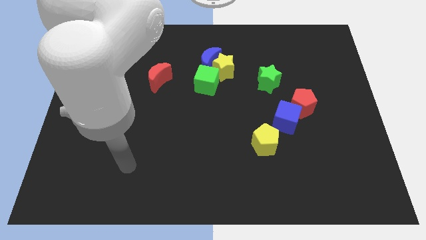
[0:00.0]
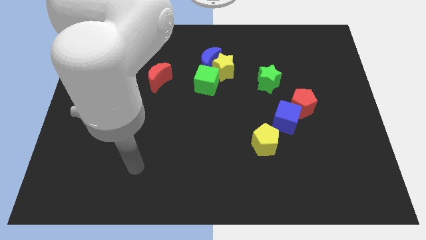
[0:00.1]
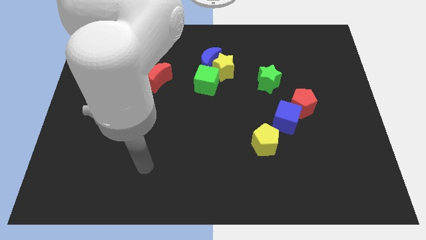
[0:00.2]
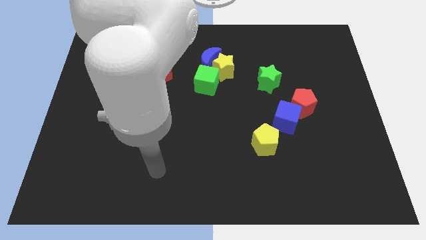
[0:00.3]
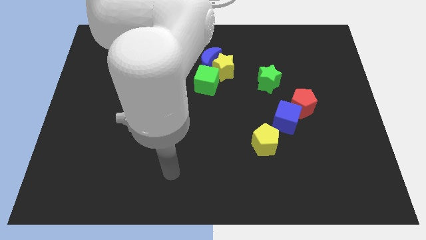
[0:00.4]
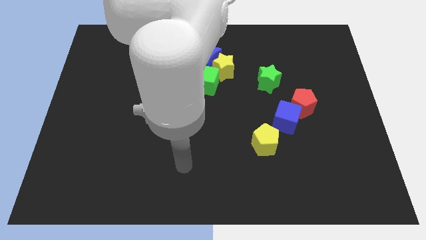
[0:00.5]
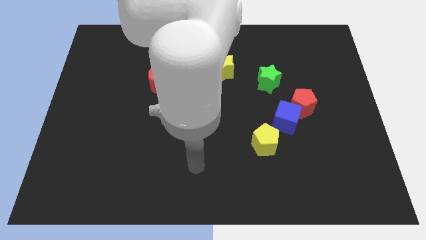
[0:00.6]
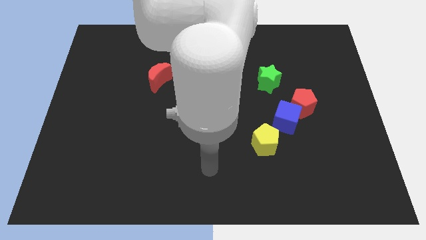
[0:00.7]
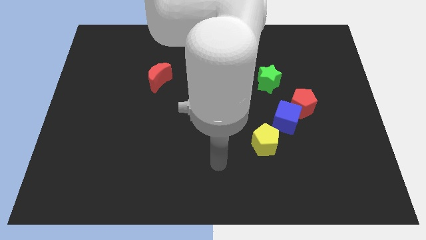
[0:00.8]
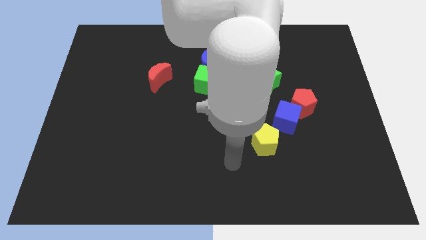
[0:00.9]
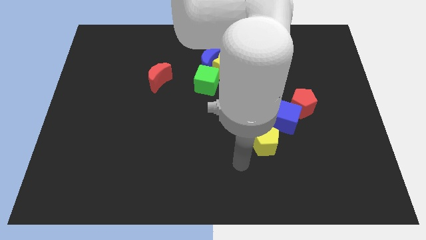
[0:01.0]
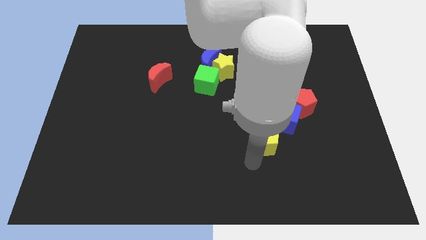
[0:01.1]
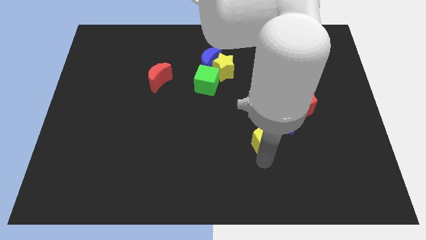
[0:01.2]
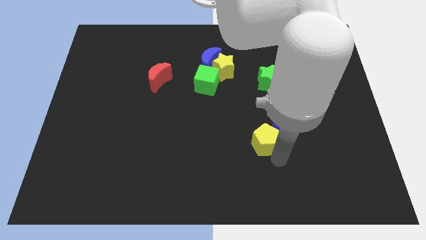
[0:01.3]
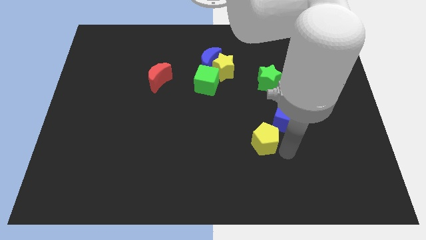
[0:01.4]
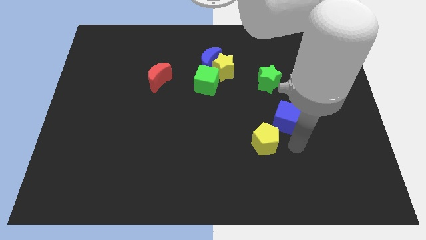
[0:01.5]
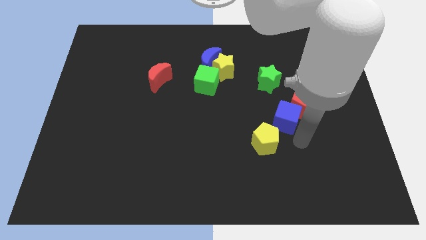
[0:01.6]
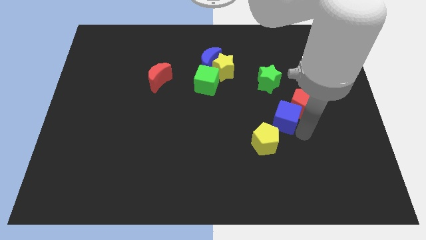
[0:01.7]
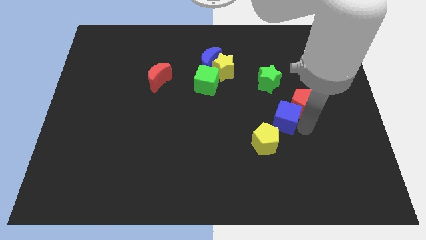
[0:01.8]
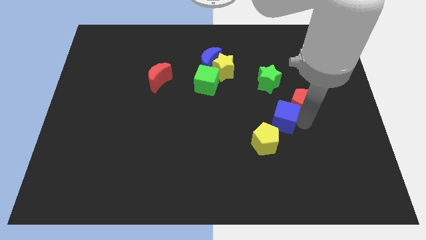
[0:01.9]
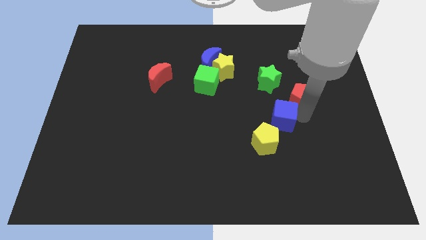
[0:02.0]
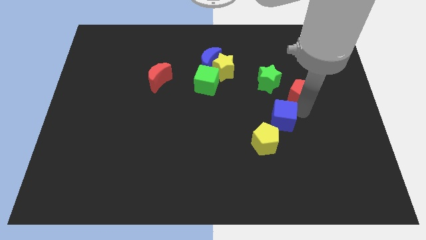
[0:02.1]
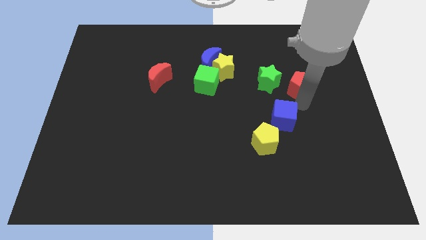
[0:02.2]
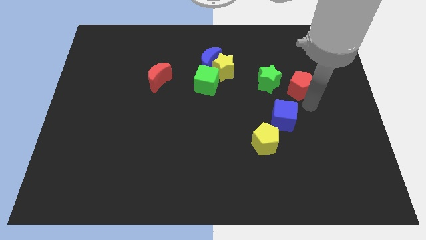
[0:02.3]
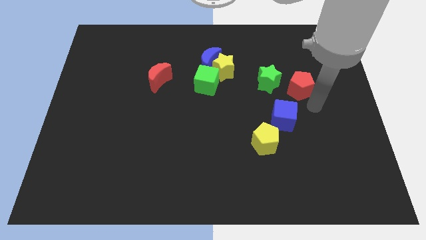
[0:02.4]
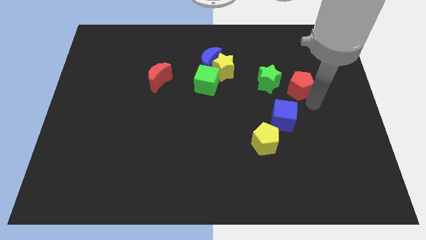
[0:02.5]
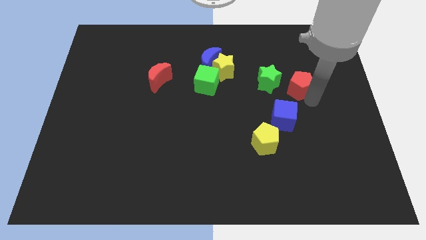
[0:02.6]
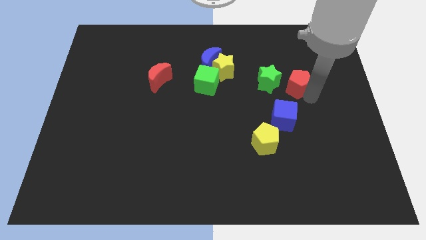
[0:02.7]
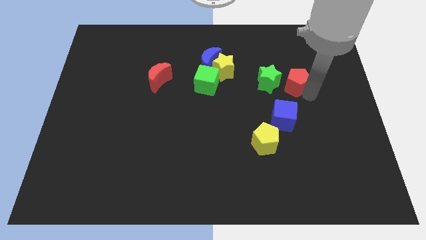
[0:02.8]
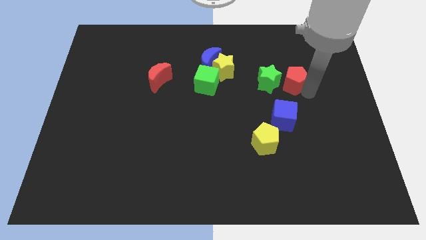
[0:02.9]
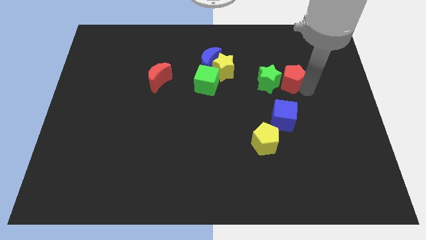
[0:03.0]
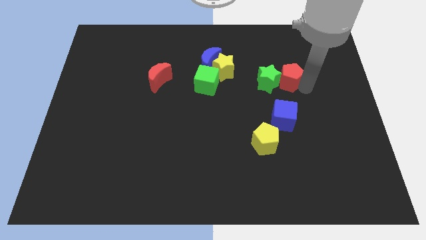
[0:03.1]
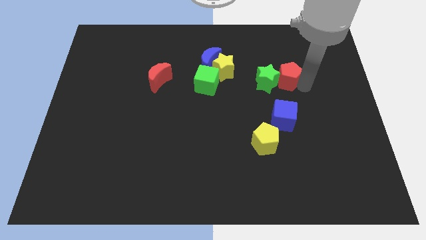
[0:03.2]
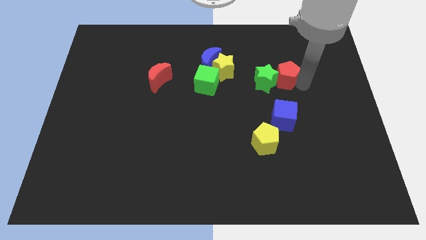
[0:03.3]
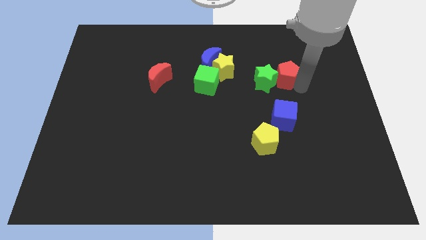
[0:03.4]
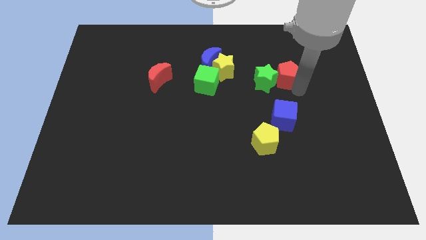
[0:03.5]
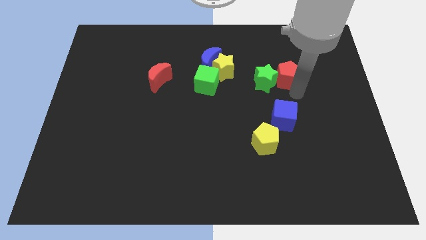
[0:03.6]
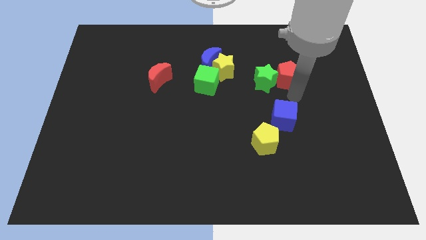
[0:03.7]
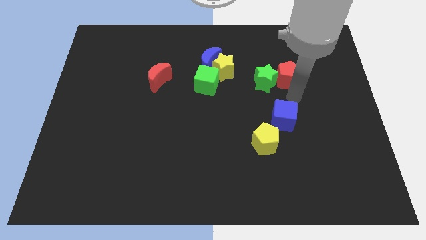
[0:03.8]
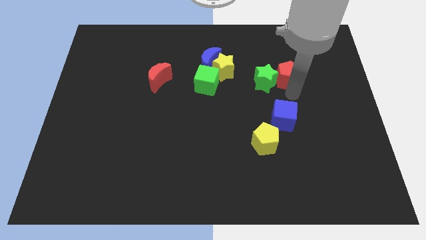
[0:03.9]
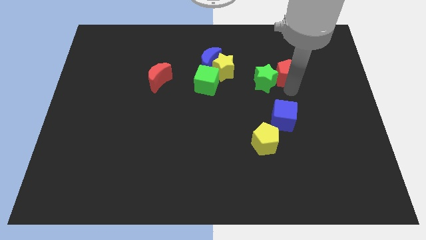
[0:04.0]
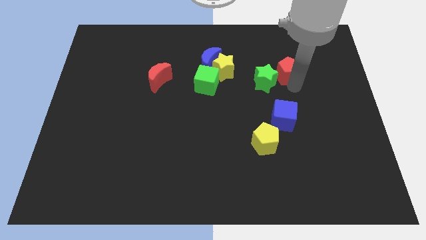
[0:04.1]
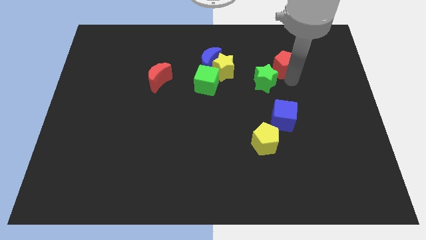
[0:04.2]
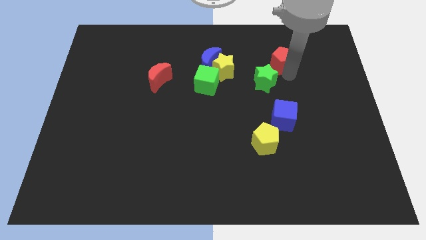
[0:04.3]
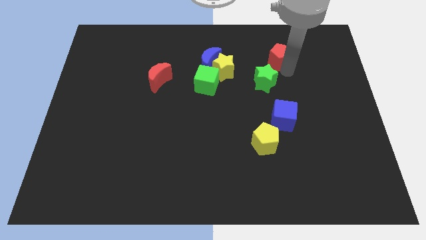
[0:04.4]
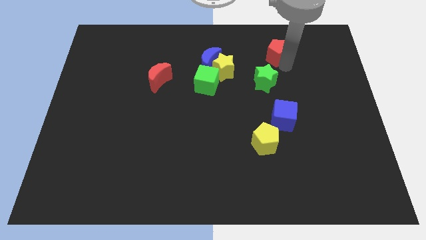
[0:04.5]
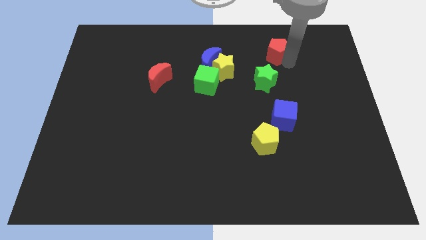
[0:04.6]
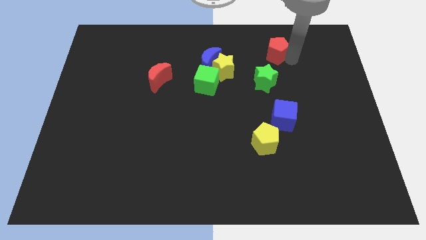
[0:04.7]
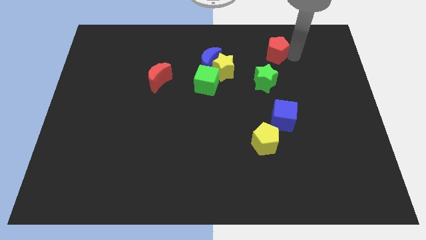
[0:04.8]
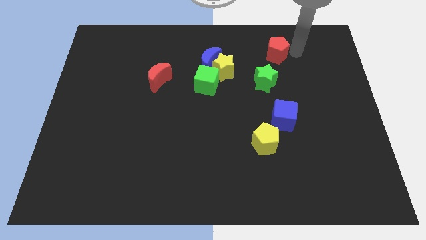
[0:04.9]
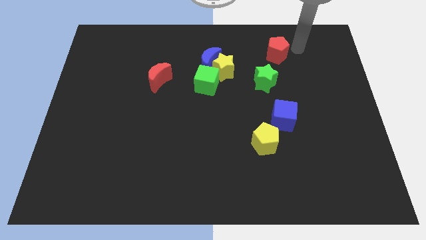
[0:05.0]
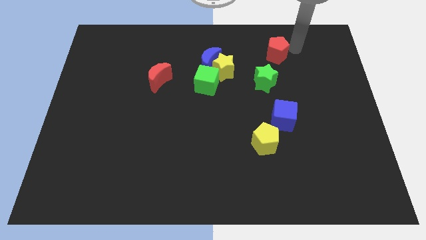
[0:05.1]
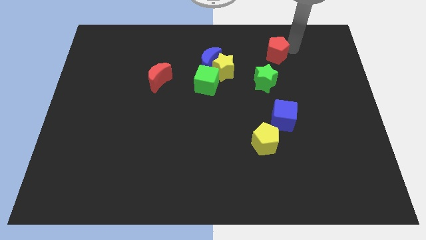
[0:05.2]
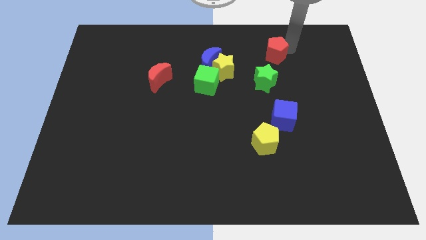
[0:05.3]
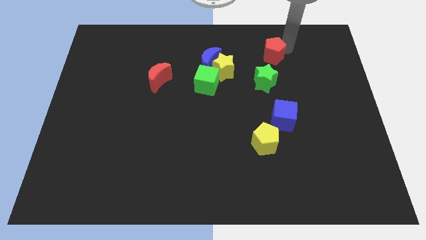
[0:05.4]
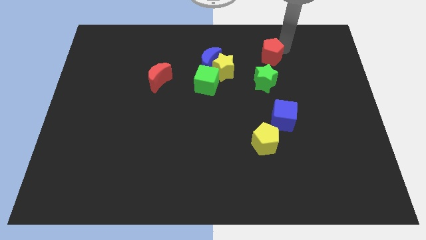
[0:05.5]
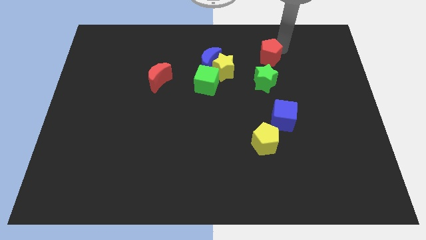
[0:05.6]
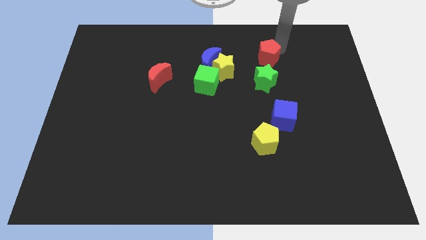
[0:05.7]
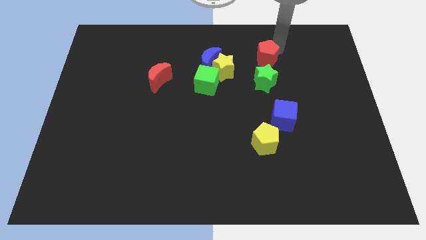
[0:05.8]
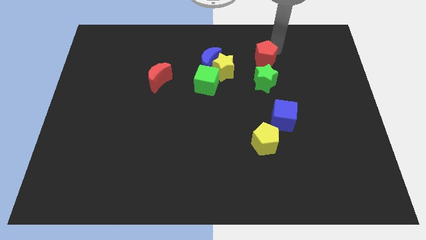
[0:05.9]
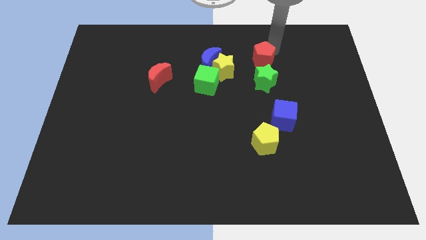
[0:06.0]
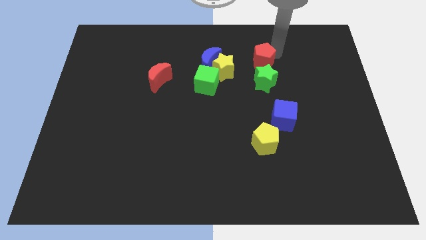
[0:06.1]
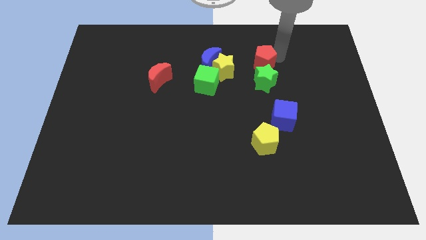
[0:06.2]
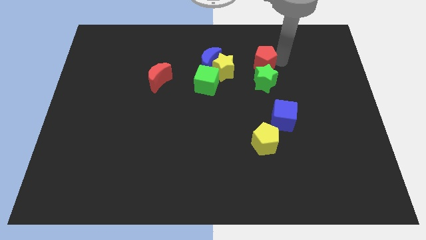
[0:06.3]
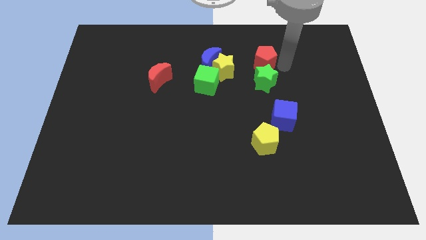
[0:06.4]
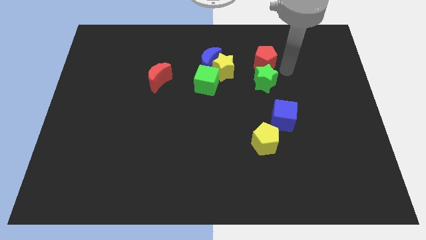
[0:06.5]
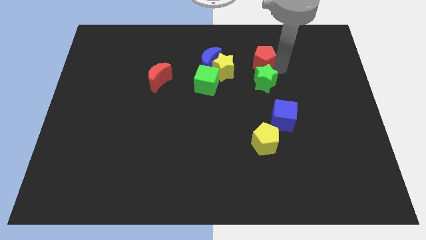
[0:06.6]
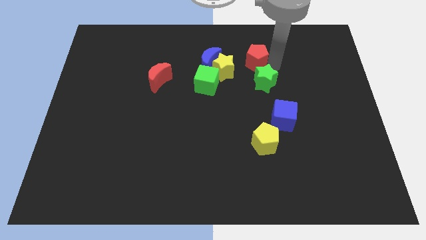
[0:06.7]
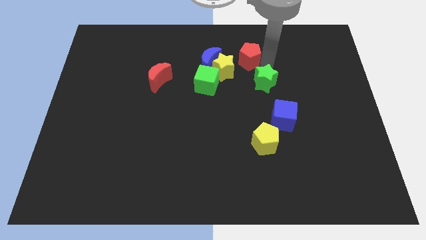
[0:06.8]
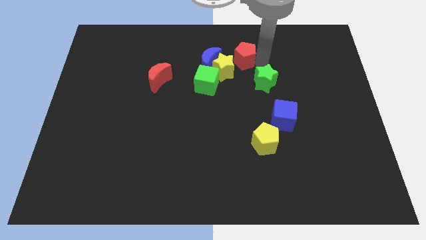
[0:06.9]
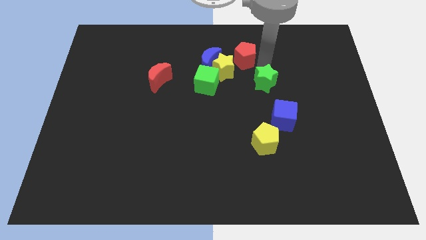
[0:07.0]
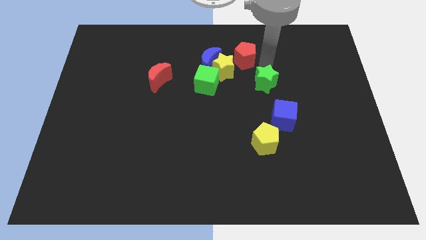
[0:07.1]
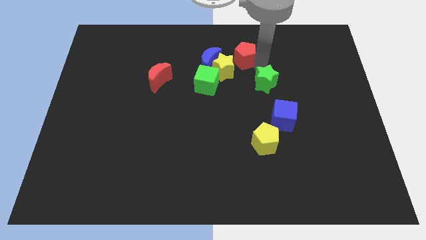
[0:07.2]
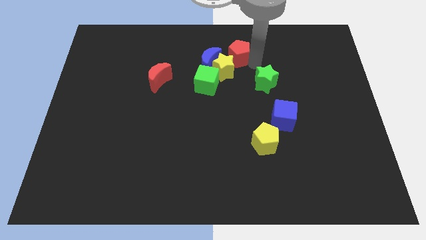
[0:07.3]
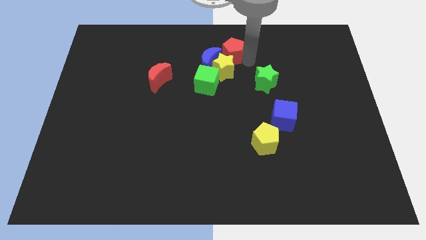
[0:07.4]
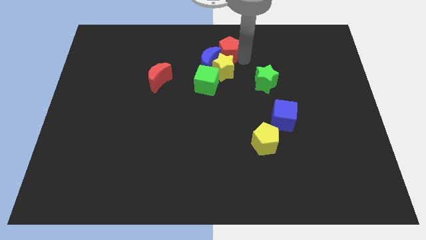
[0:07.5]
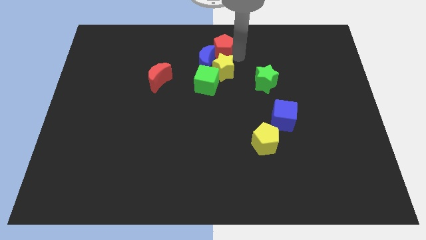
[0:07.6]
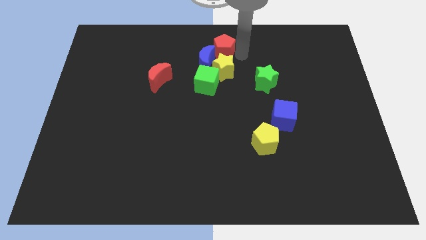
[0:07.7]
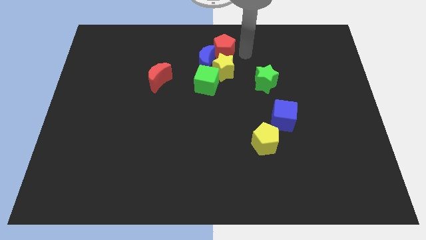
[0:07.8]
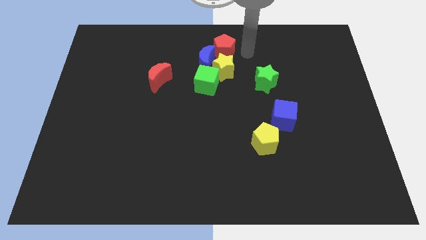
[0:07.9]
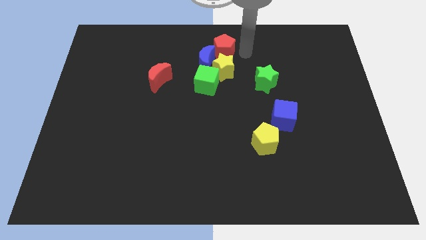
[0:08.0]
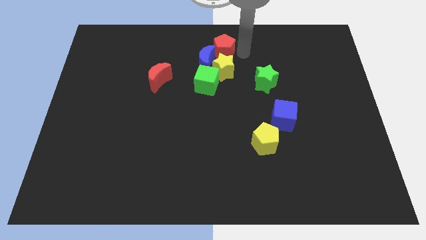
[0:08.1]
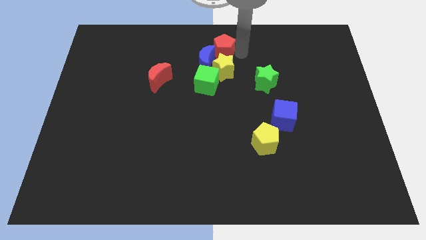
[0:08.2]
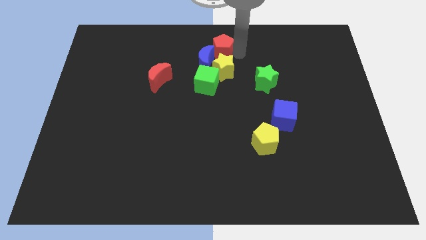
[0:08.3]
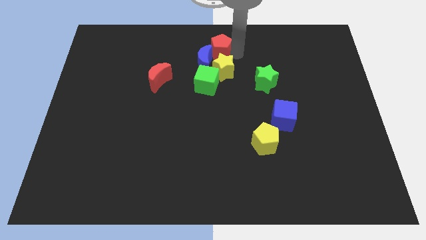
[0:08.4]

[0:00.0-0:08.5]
put the red pentagon diagonally up and to the left of the yellow star
